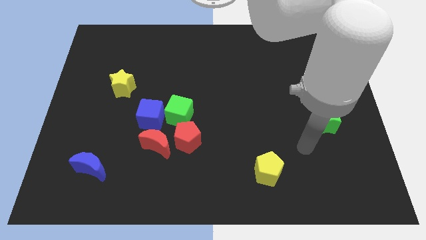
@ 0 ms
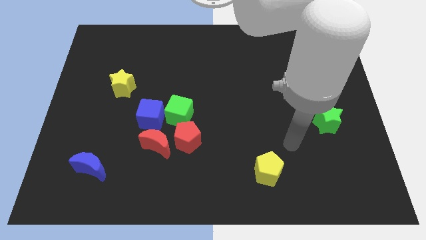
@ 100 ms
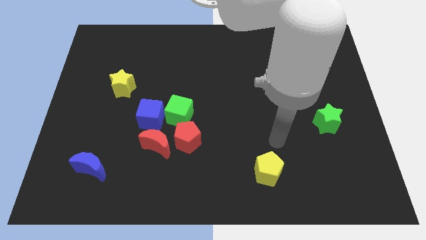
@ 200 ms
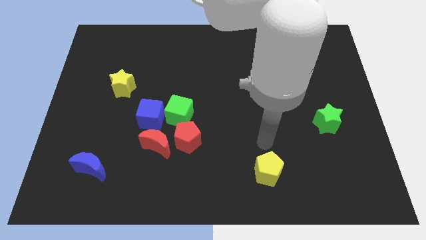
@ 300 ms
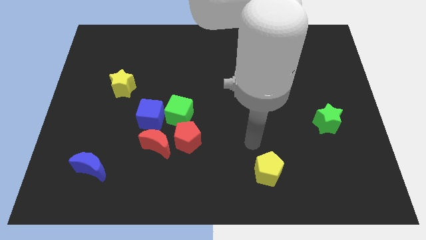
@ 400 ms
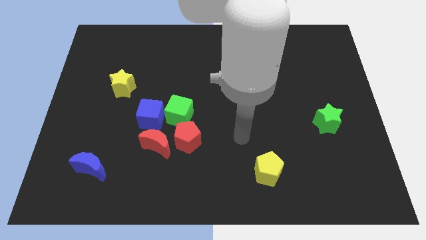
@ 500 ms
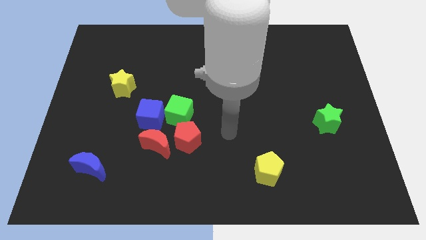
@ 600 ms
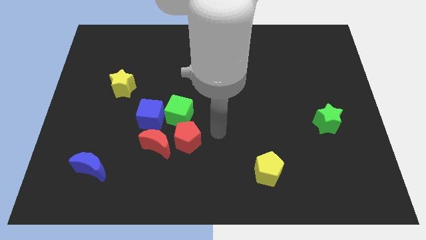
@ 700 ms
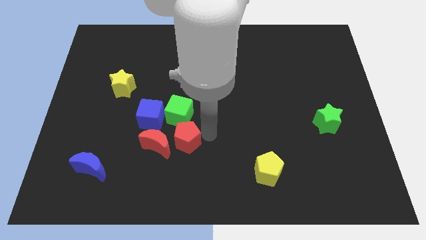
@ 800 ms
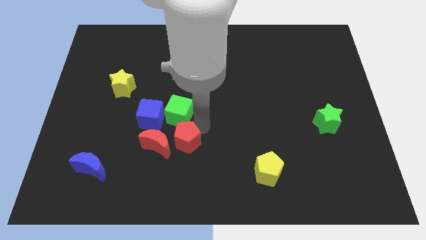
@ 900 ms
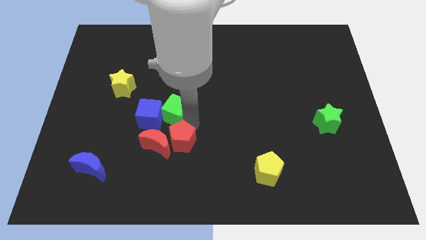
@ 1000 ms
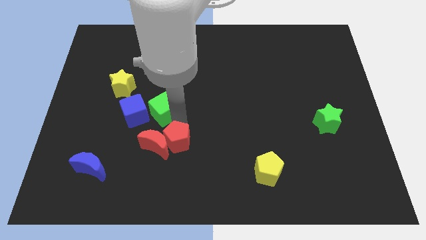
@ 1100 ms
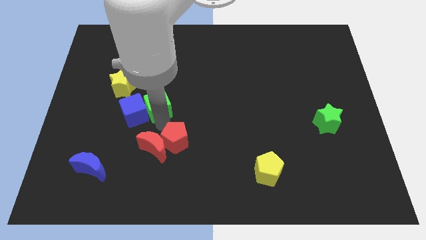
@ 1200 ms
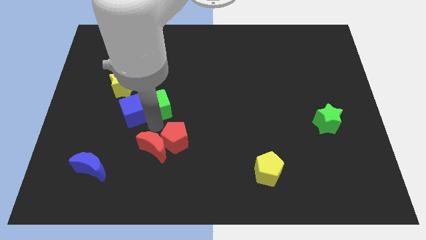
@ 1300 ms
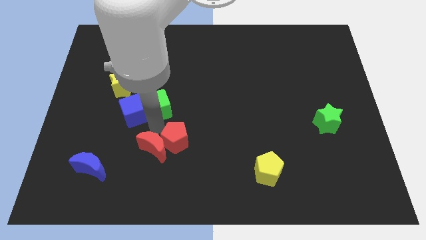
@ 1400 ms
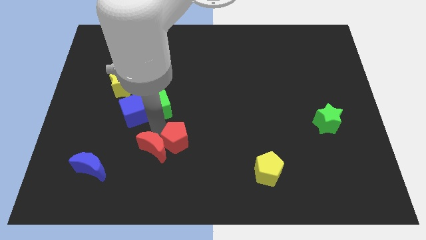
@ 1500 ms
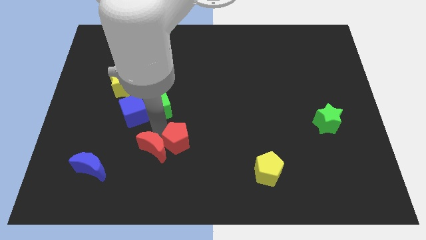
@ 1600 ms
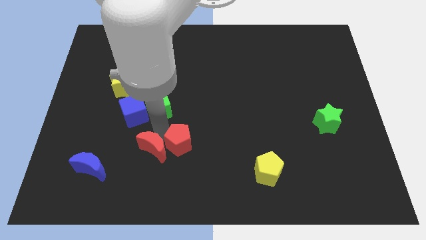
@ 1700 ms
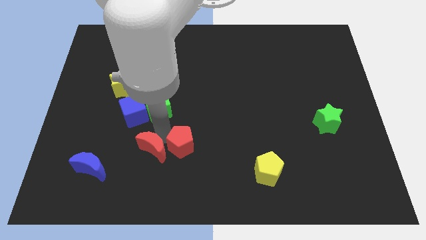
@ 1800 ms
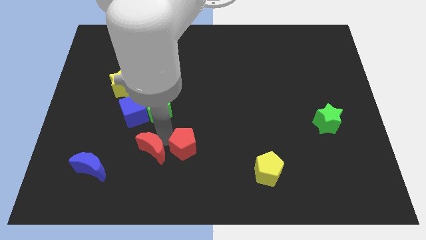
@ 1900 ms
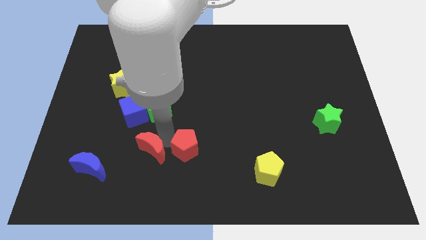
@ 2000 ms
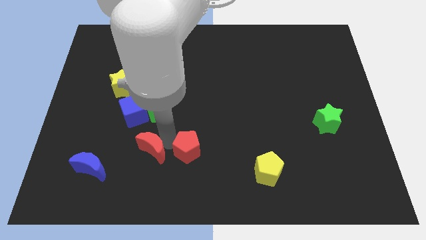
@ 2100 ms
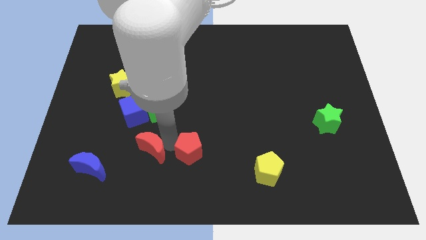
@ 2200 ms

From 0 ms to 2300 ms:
pull the red pentagon apart from the red moon and green cube

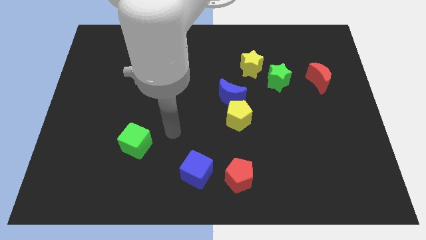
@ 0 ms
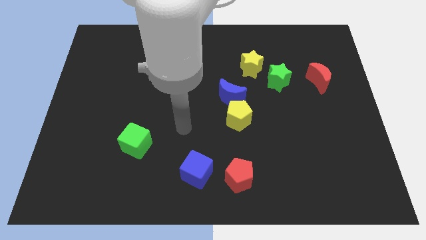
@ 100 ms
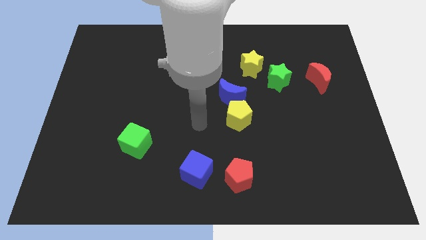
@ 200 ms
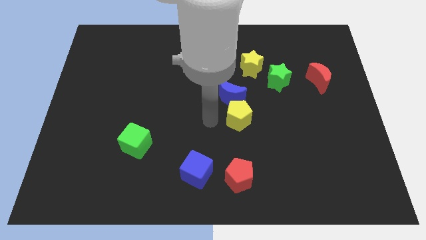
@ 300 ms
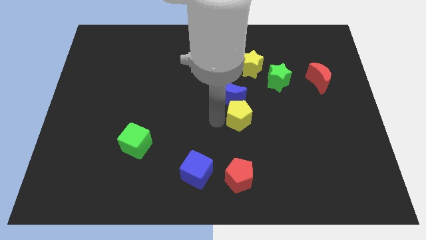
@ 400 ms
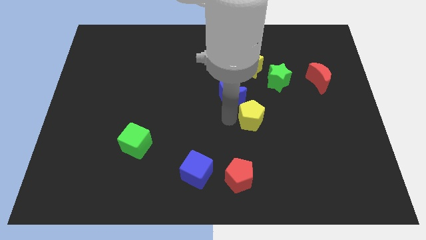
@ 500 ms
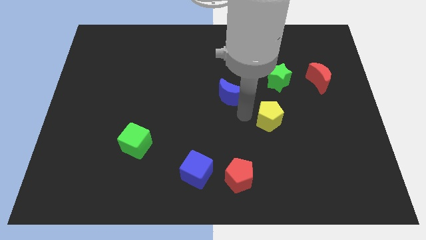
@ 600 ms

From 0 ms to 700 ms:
separate the blue moon from the yellow pentagon

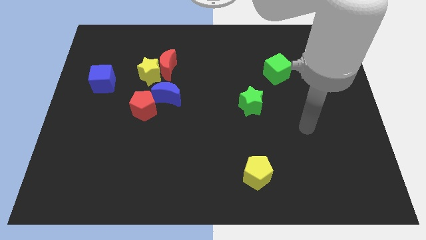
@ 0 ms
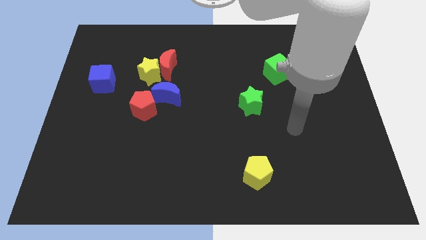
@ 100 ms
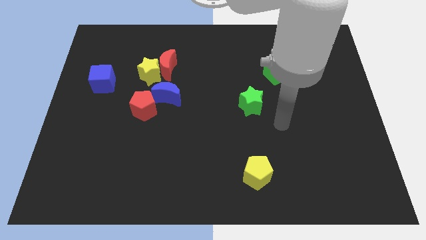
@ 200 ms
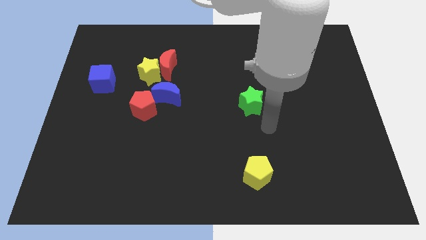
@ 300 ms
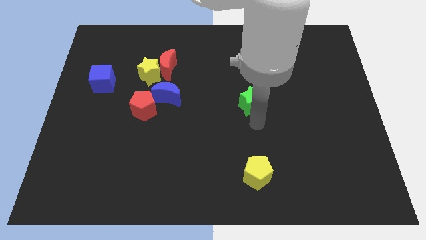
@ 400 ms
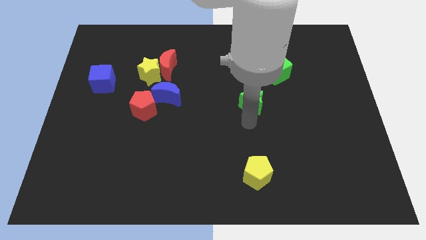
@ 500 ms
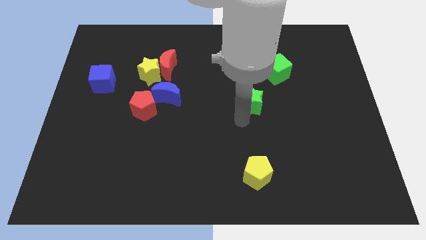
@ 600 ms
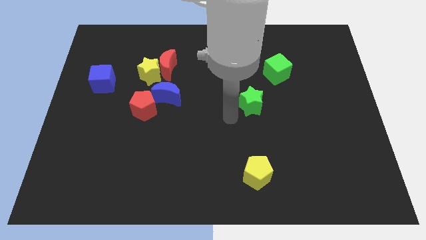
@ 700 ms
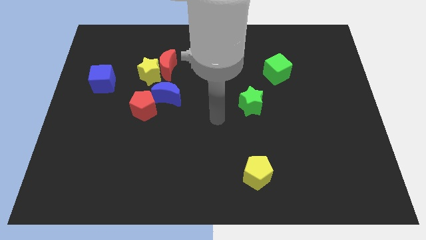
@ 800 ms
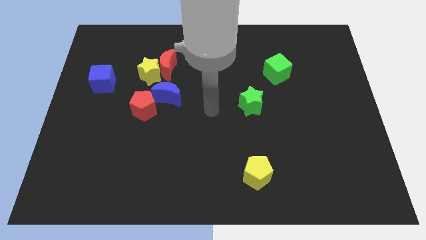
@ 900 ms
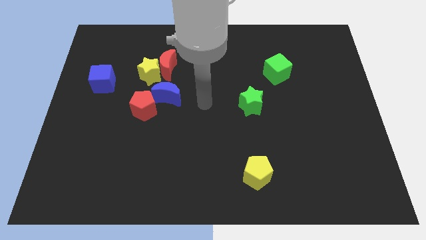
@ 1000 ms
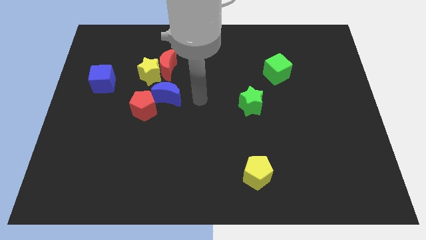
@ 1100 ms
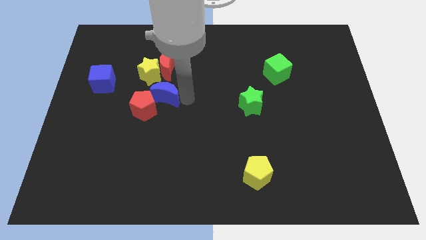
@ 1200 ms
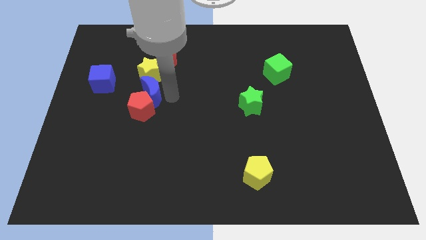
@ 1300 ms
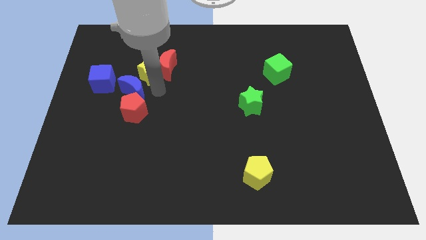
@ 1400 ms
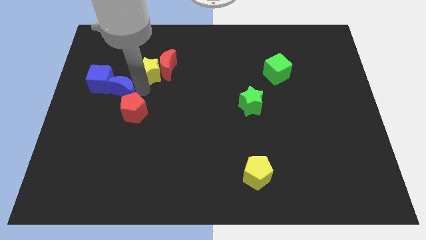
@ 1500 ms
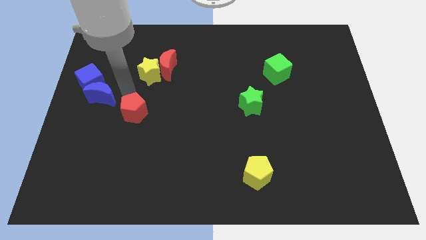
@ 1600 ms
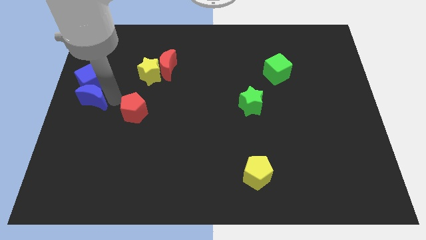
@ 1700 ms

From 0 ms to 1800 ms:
pull the red pentagon apart from the blue moon

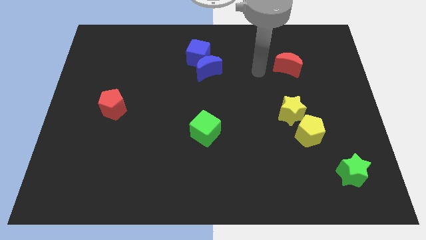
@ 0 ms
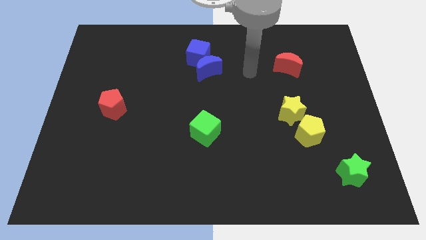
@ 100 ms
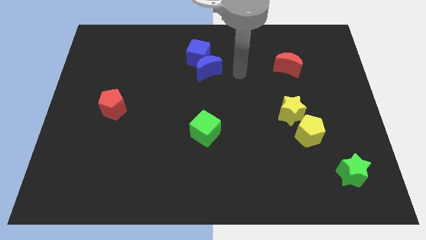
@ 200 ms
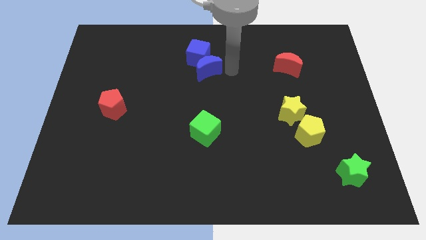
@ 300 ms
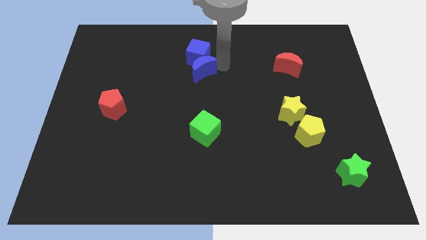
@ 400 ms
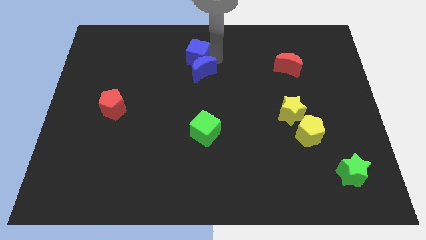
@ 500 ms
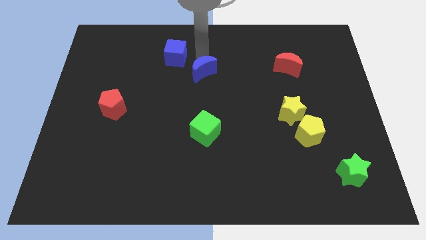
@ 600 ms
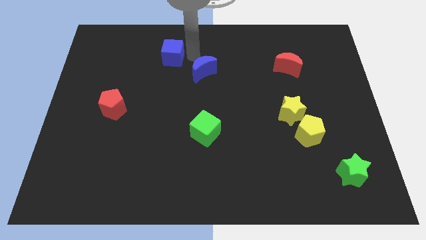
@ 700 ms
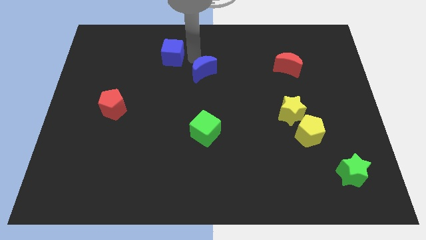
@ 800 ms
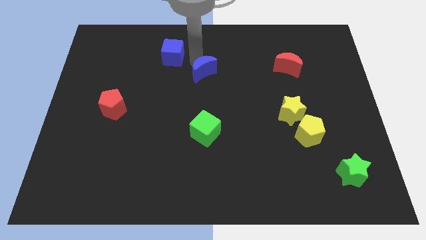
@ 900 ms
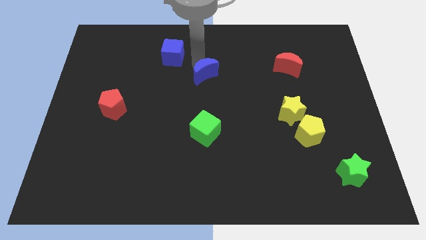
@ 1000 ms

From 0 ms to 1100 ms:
move the blue moon away from the blue cube

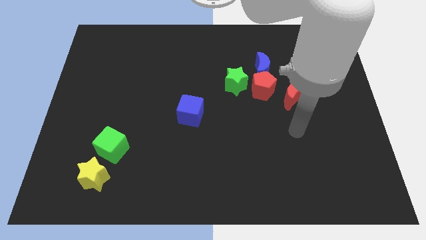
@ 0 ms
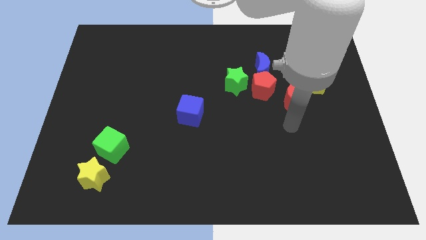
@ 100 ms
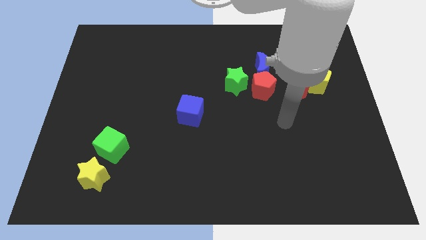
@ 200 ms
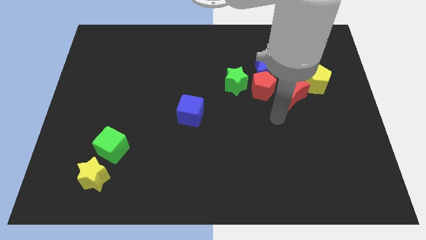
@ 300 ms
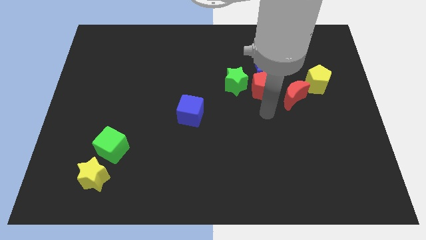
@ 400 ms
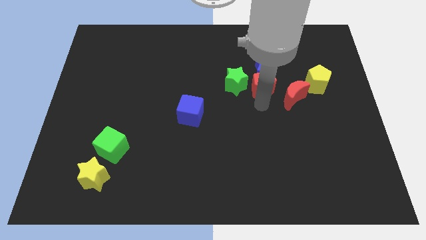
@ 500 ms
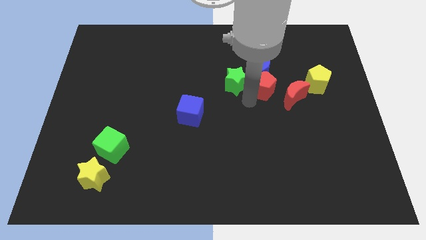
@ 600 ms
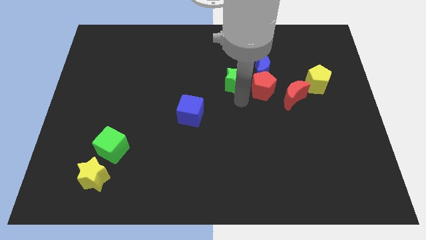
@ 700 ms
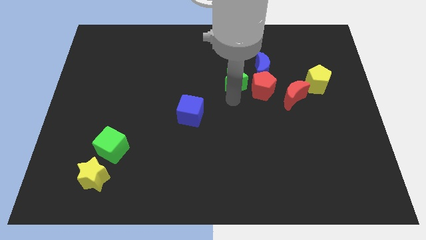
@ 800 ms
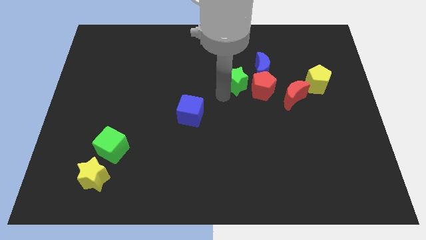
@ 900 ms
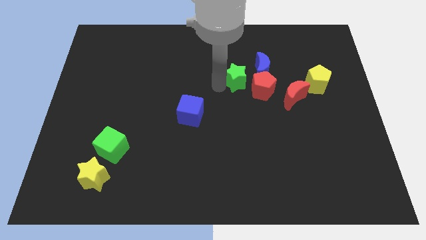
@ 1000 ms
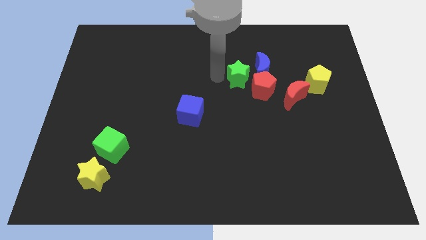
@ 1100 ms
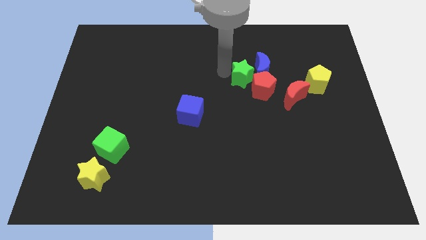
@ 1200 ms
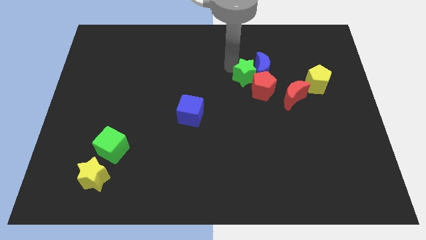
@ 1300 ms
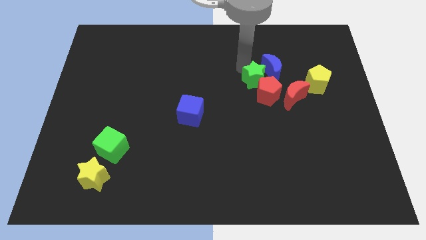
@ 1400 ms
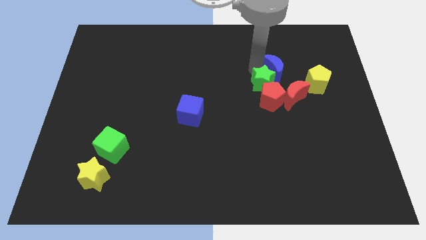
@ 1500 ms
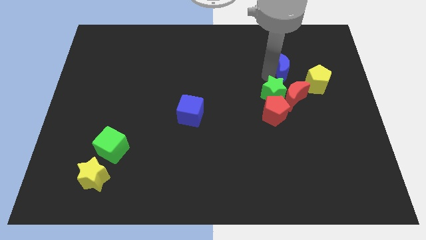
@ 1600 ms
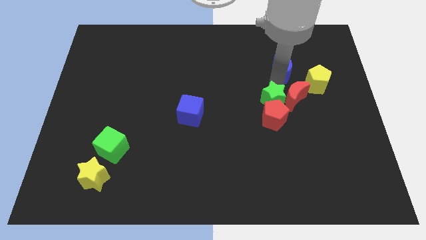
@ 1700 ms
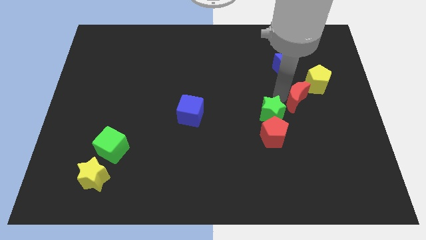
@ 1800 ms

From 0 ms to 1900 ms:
move the red pentagon away from the clump

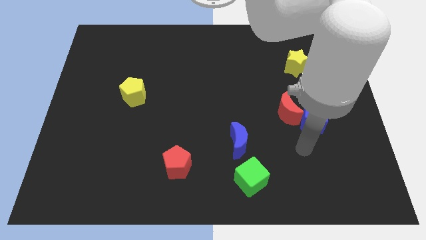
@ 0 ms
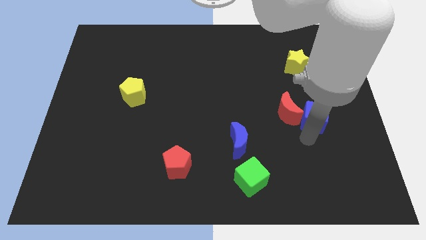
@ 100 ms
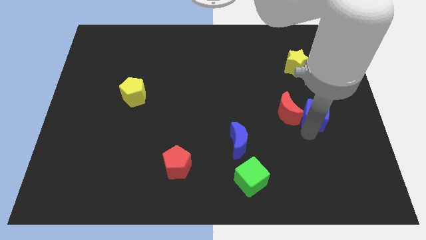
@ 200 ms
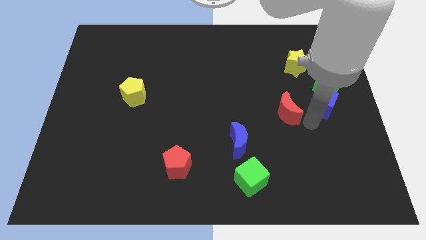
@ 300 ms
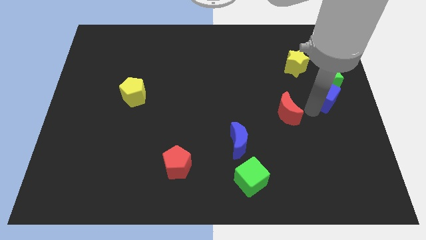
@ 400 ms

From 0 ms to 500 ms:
separate the red moon from the blue cube

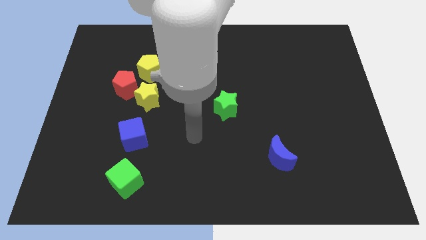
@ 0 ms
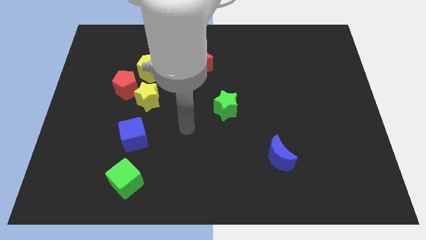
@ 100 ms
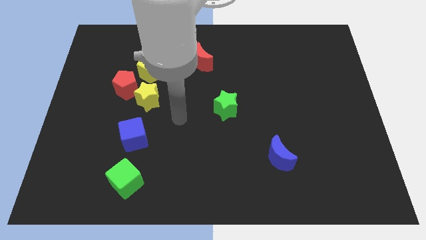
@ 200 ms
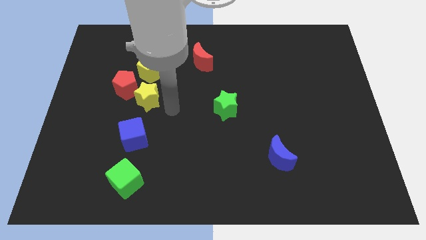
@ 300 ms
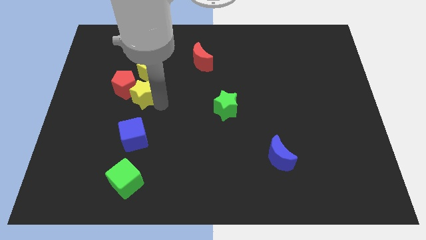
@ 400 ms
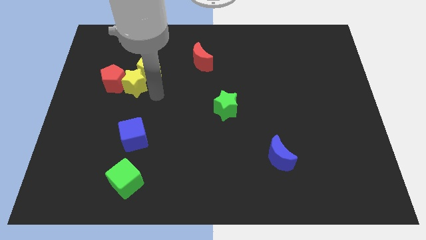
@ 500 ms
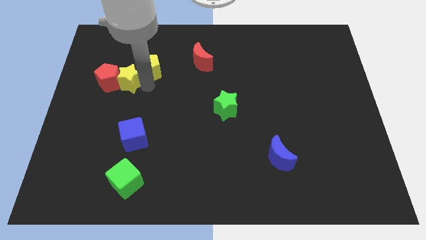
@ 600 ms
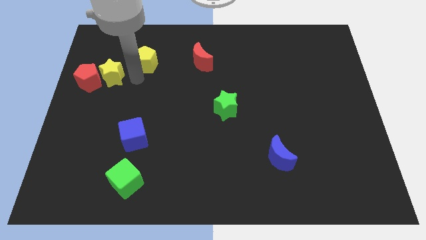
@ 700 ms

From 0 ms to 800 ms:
move the red pentagon away from the yellow star and yellow pentagon

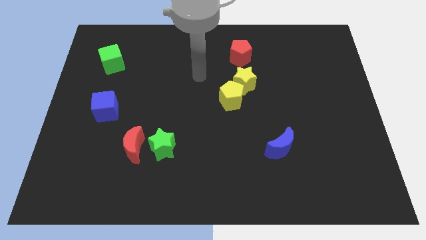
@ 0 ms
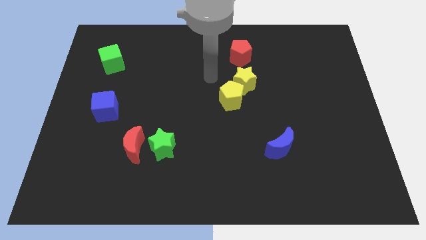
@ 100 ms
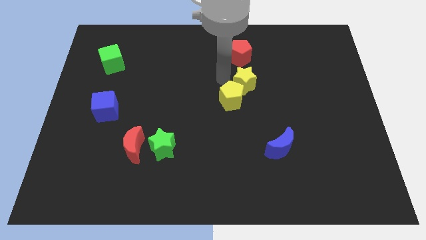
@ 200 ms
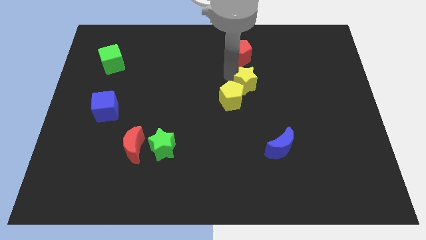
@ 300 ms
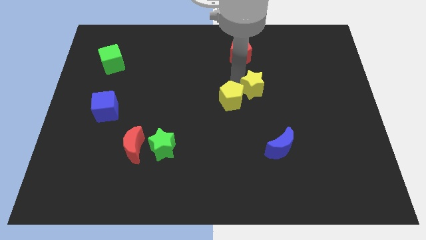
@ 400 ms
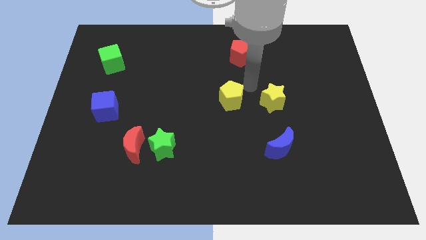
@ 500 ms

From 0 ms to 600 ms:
pull the yellow pentagon apart from the yellow star
